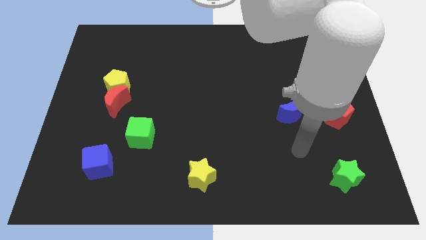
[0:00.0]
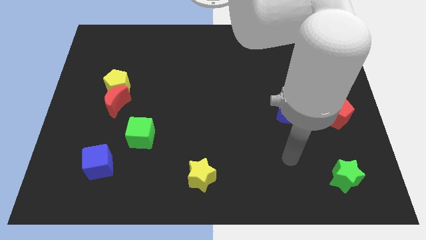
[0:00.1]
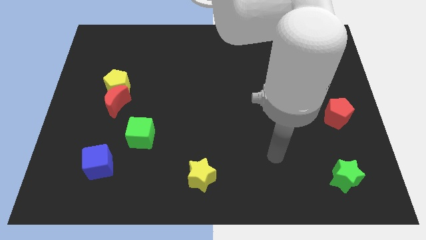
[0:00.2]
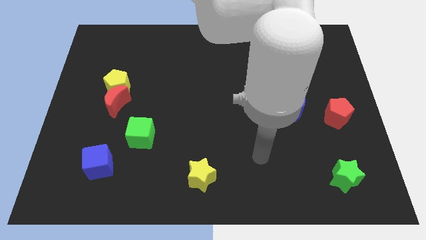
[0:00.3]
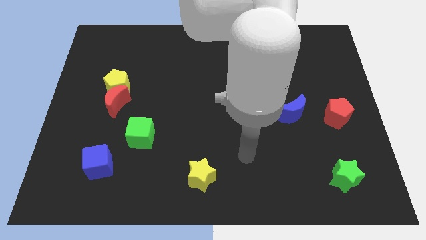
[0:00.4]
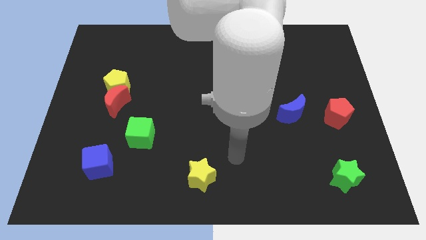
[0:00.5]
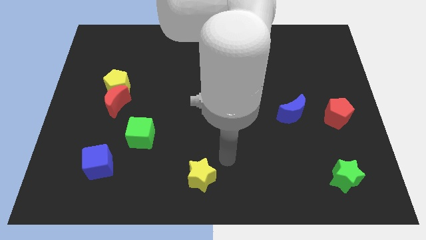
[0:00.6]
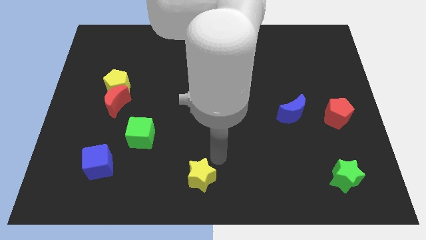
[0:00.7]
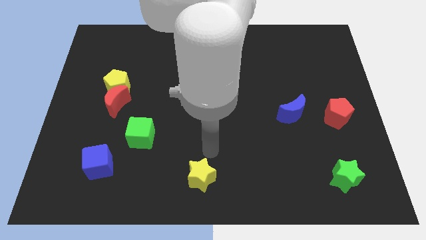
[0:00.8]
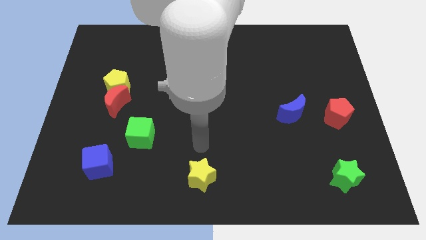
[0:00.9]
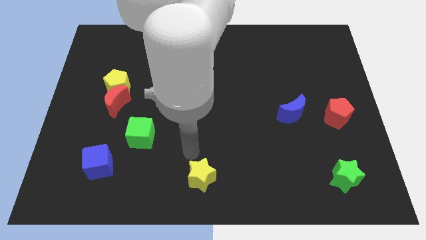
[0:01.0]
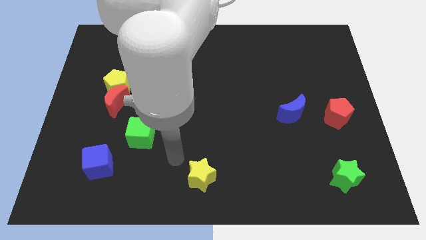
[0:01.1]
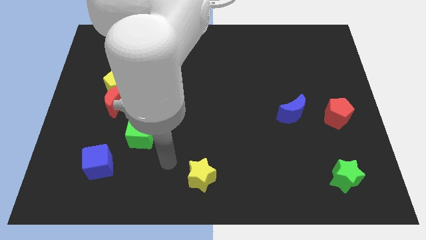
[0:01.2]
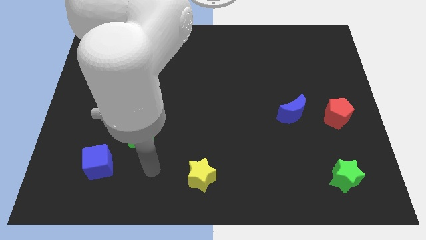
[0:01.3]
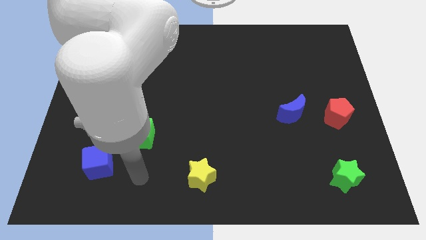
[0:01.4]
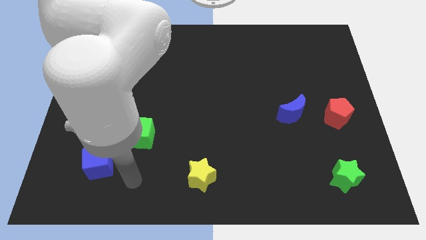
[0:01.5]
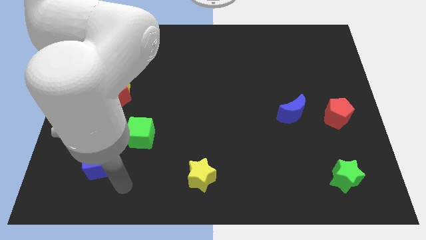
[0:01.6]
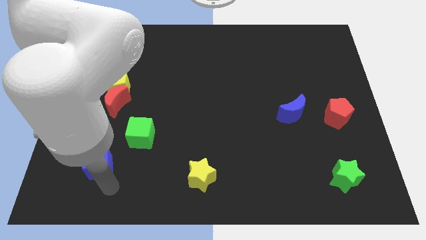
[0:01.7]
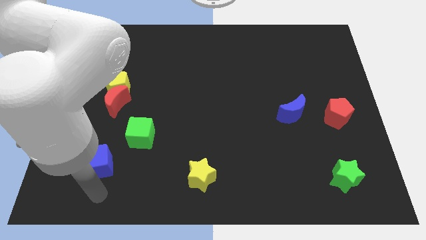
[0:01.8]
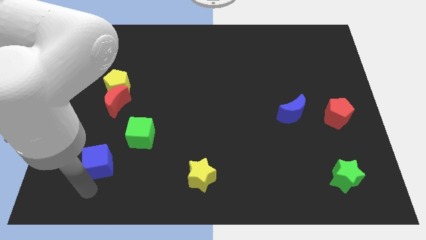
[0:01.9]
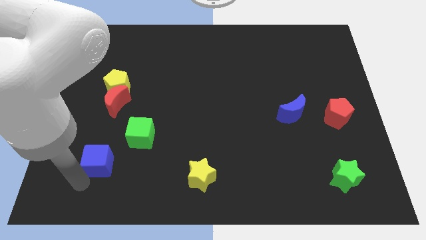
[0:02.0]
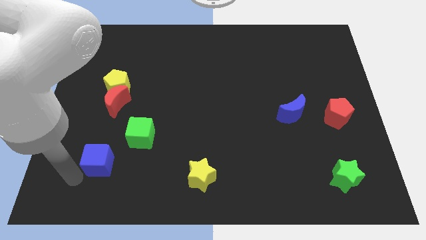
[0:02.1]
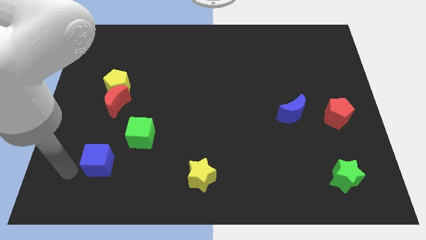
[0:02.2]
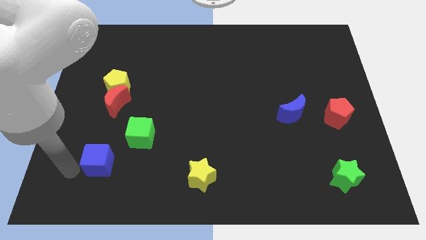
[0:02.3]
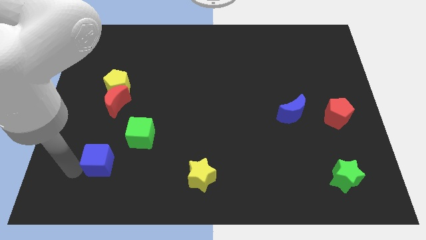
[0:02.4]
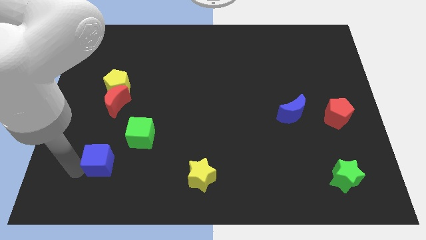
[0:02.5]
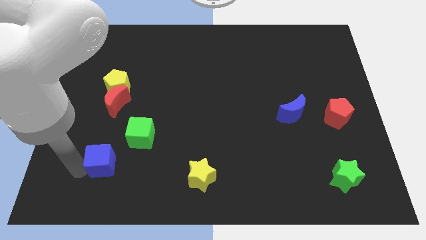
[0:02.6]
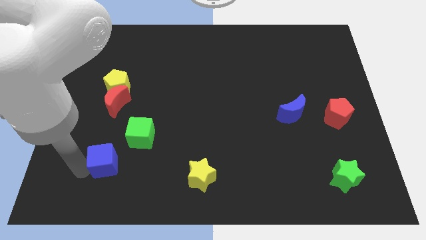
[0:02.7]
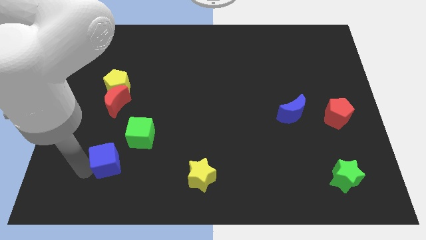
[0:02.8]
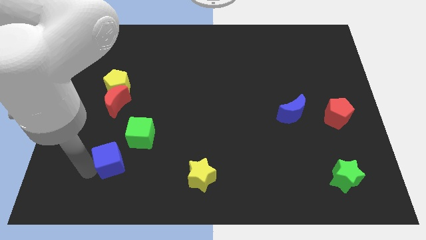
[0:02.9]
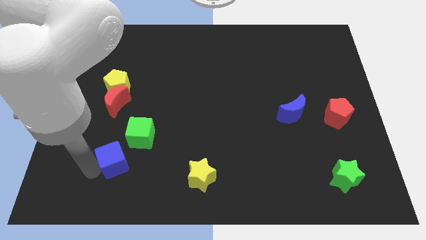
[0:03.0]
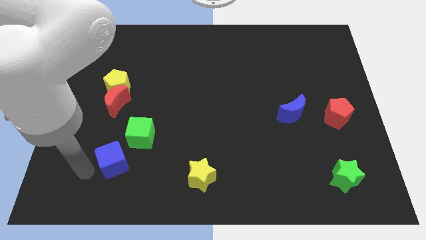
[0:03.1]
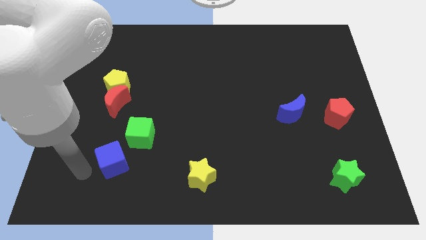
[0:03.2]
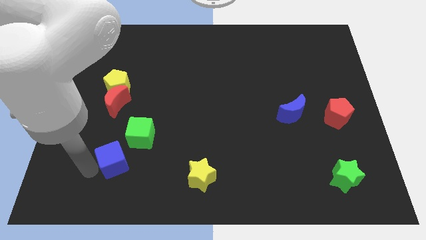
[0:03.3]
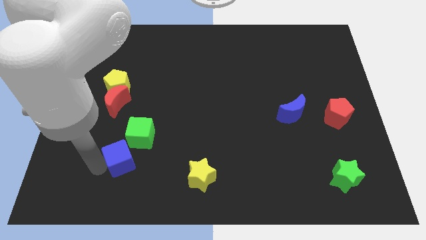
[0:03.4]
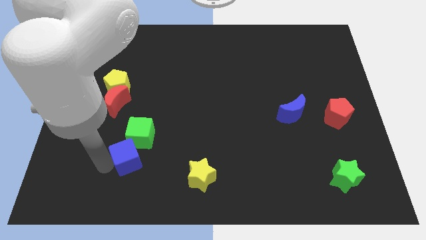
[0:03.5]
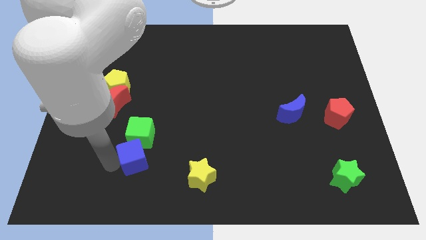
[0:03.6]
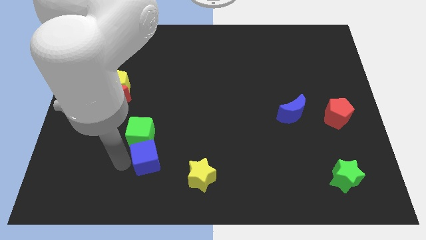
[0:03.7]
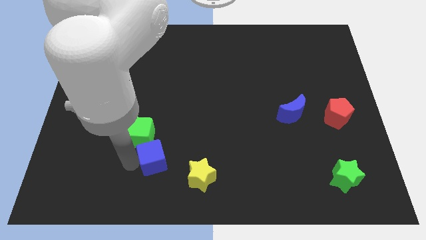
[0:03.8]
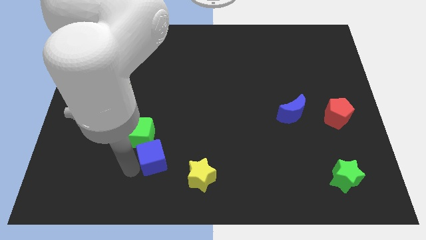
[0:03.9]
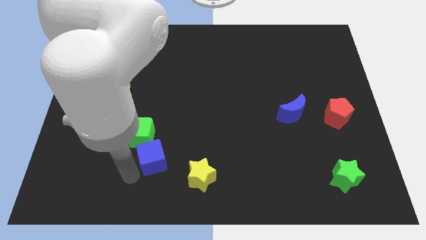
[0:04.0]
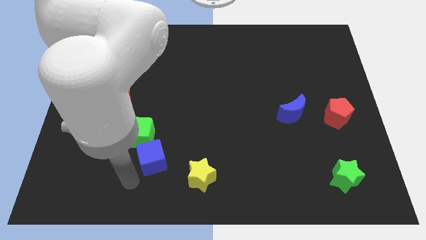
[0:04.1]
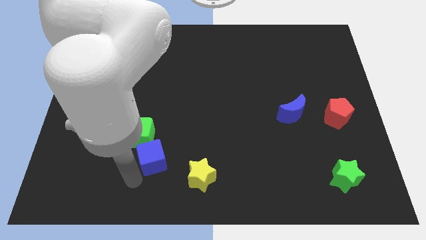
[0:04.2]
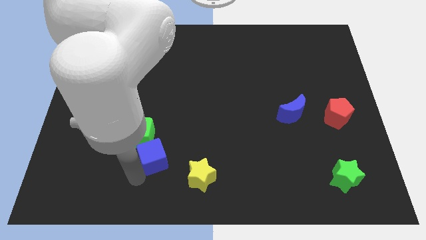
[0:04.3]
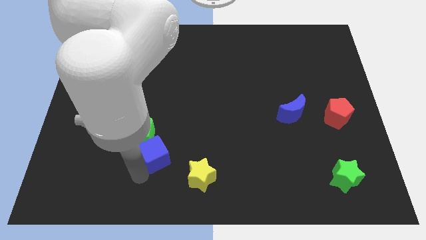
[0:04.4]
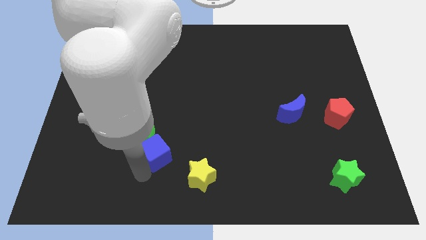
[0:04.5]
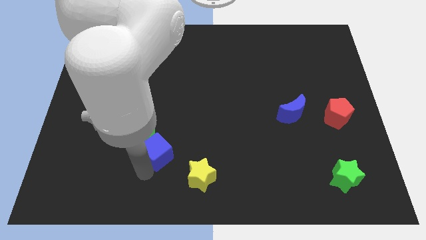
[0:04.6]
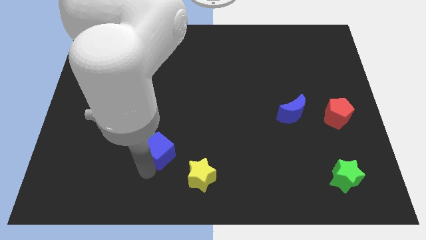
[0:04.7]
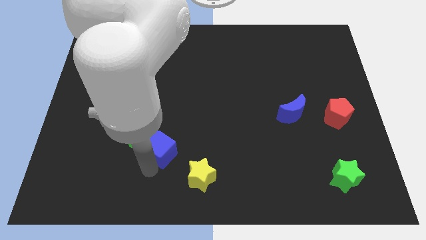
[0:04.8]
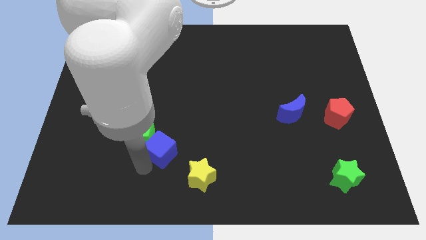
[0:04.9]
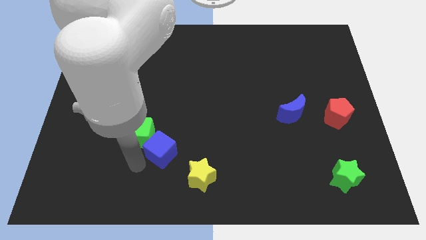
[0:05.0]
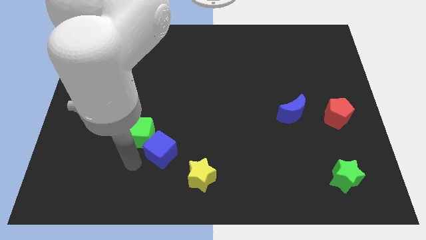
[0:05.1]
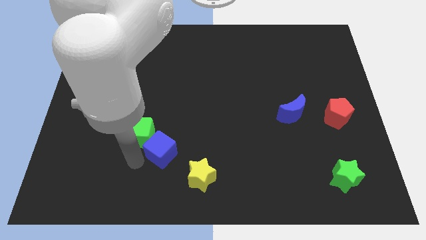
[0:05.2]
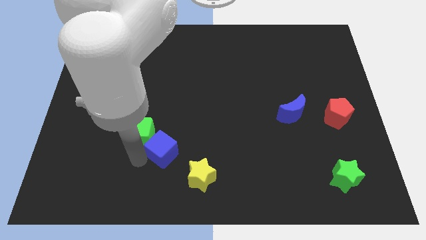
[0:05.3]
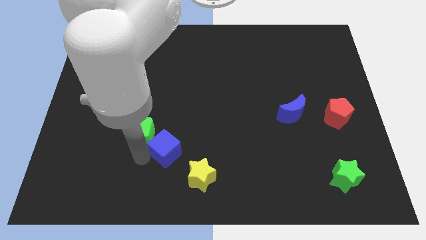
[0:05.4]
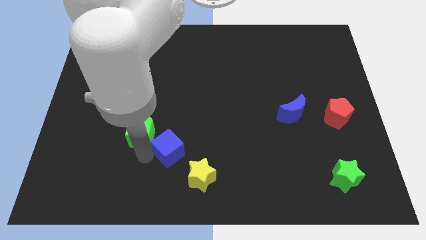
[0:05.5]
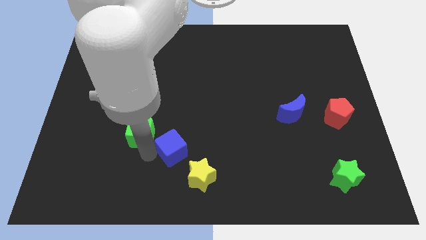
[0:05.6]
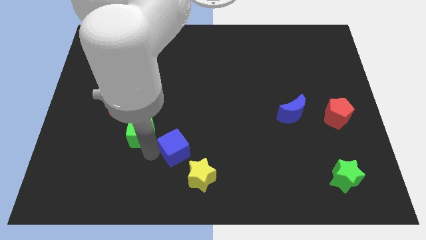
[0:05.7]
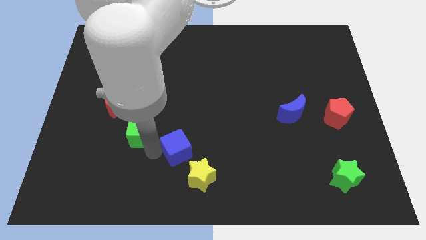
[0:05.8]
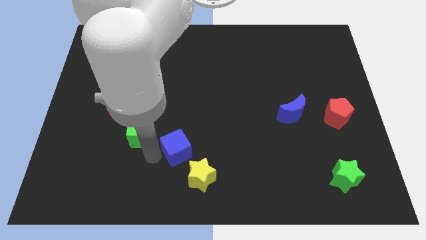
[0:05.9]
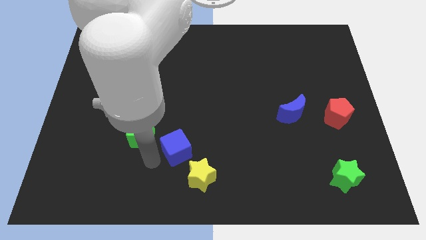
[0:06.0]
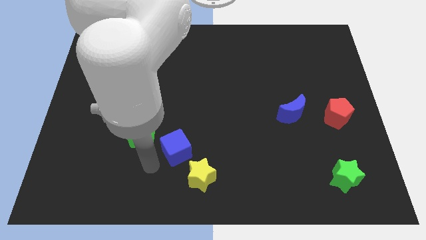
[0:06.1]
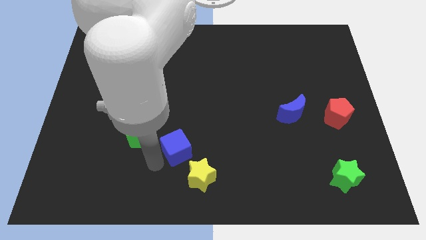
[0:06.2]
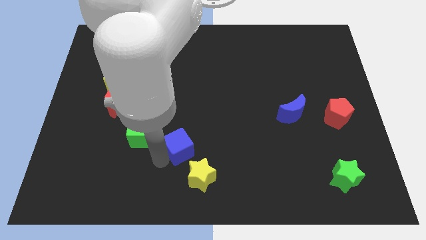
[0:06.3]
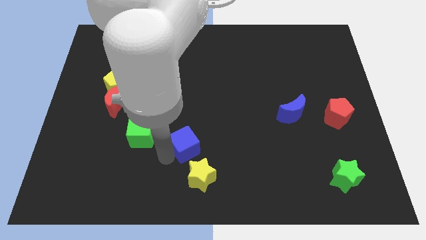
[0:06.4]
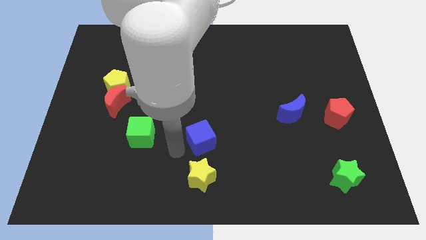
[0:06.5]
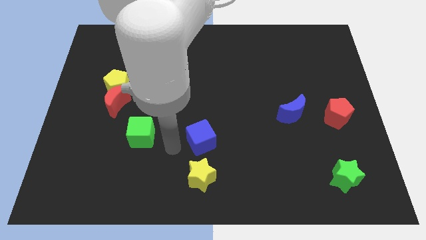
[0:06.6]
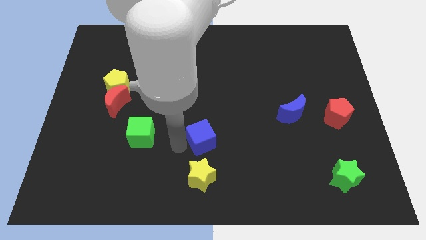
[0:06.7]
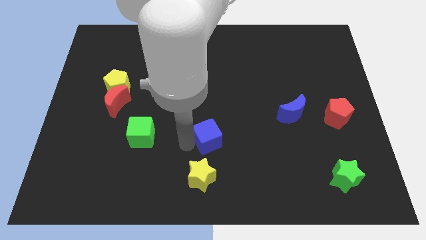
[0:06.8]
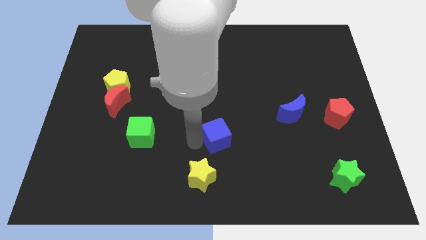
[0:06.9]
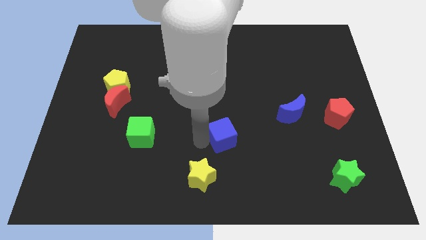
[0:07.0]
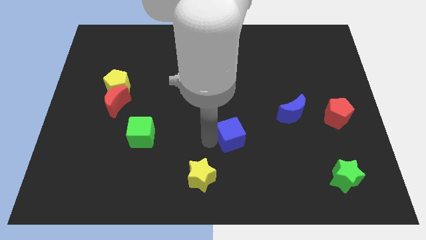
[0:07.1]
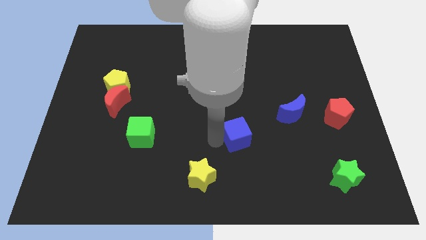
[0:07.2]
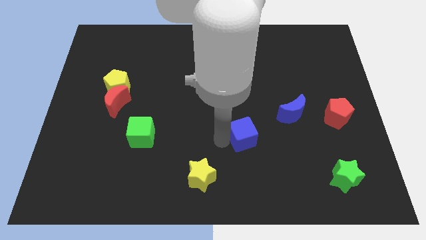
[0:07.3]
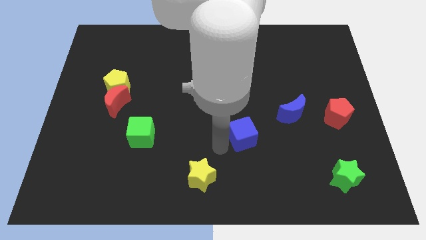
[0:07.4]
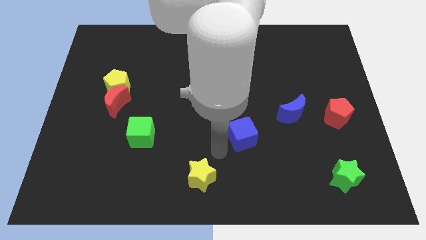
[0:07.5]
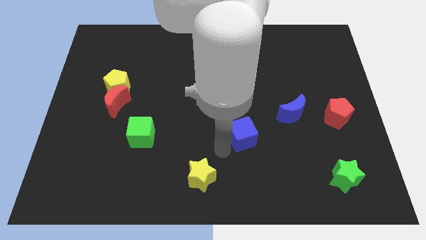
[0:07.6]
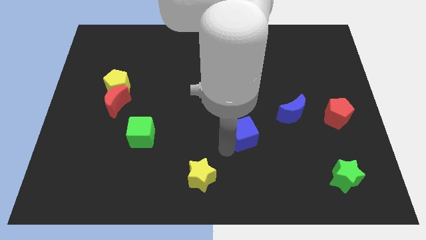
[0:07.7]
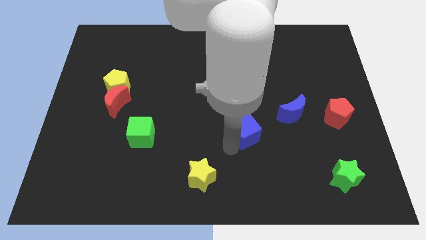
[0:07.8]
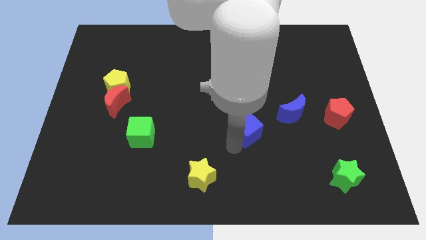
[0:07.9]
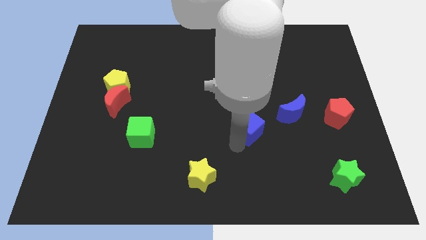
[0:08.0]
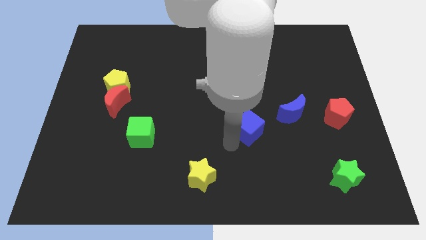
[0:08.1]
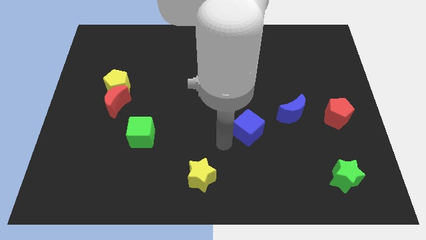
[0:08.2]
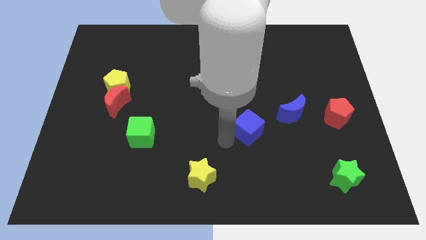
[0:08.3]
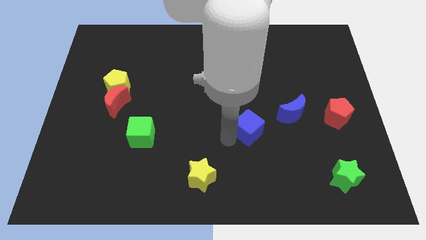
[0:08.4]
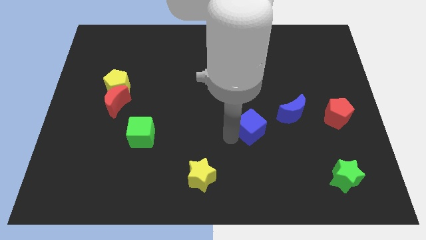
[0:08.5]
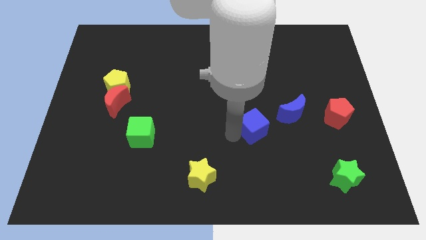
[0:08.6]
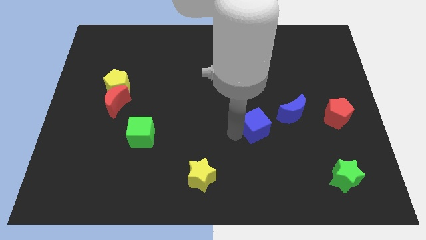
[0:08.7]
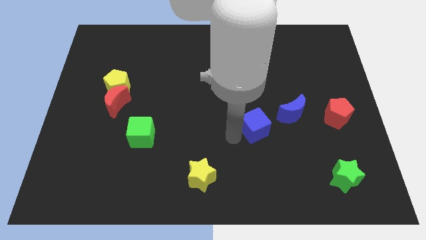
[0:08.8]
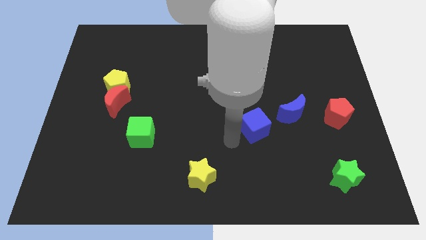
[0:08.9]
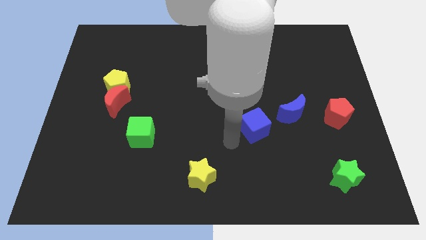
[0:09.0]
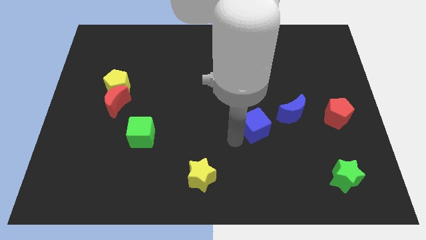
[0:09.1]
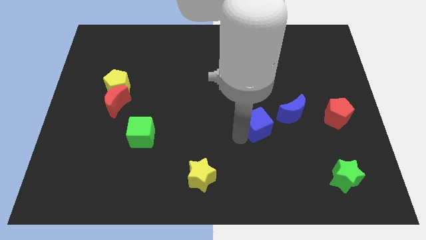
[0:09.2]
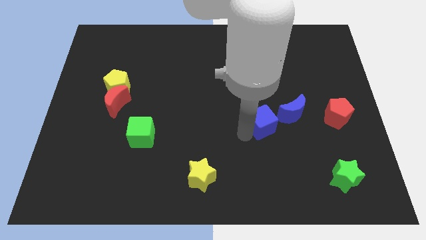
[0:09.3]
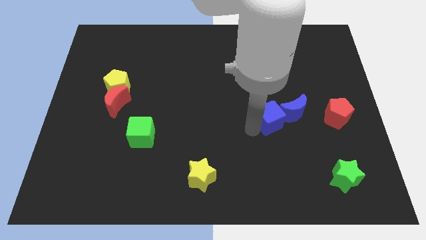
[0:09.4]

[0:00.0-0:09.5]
push the blue cube next to the blue moon
